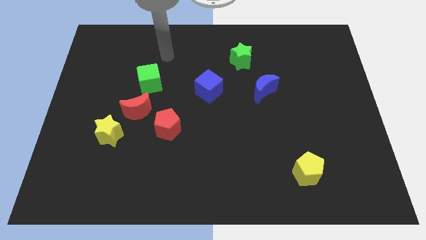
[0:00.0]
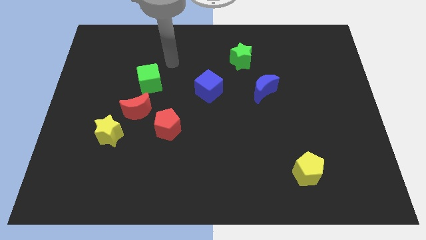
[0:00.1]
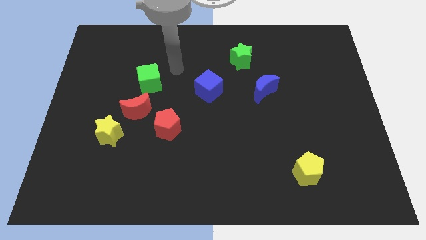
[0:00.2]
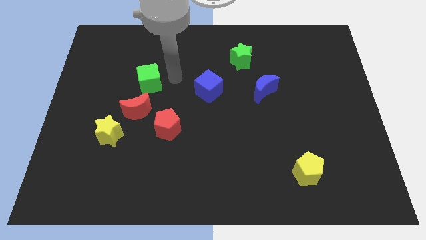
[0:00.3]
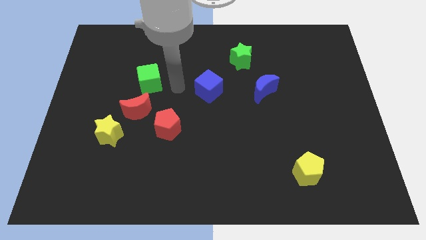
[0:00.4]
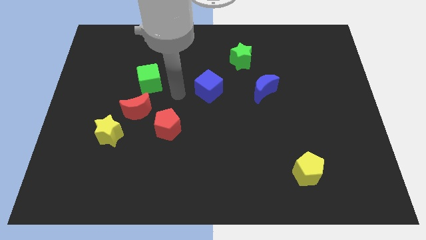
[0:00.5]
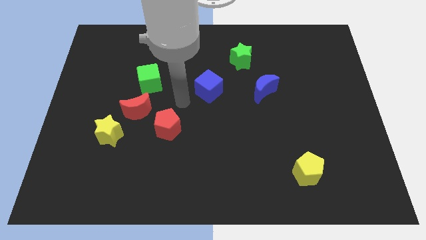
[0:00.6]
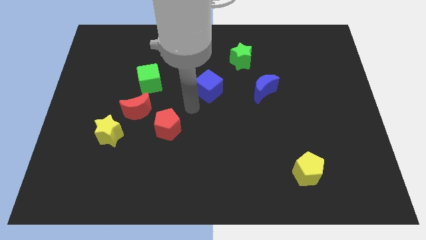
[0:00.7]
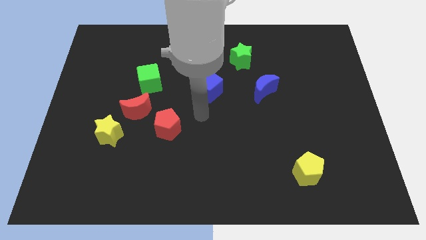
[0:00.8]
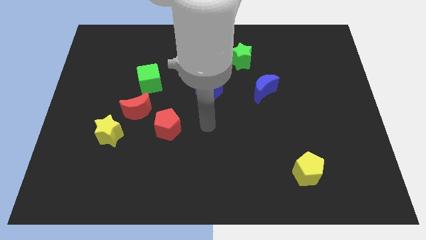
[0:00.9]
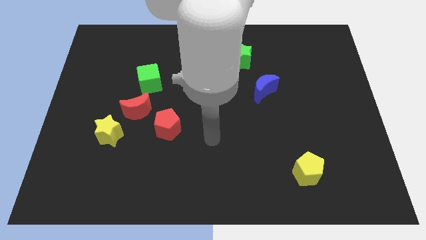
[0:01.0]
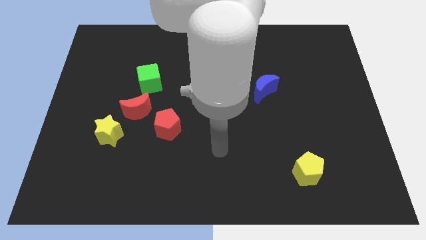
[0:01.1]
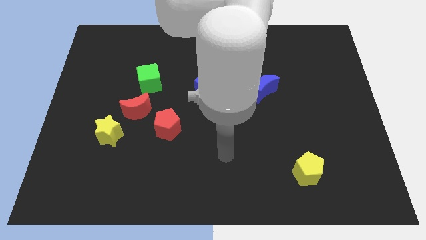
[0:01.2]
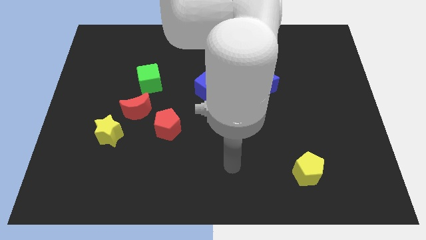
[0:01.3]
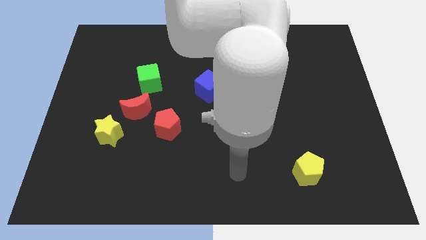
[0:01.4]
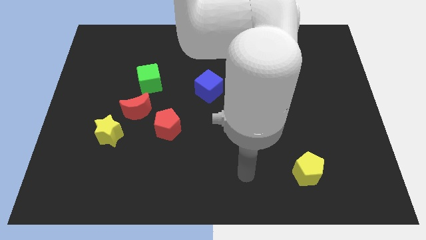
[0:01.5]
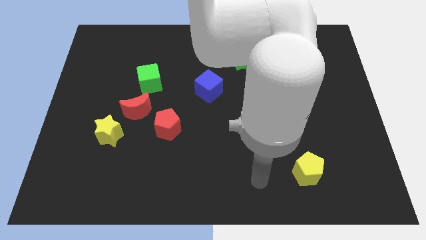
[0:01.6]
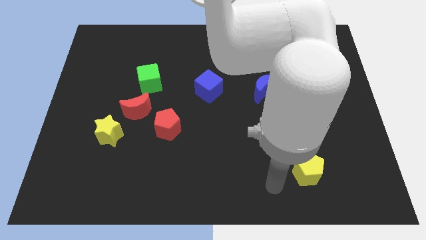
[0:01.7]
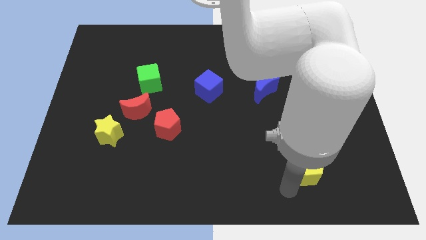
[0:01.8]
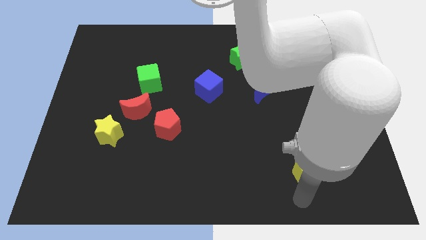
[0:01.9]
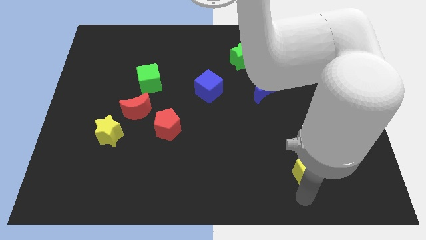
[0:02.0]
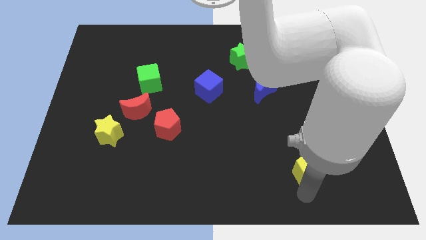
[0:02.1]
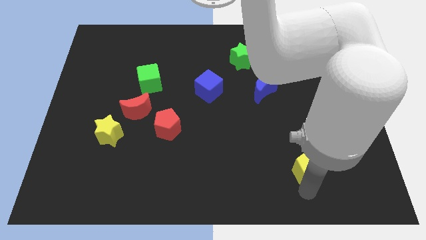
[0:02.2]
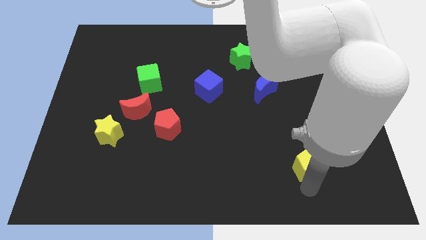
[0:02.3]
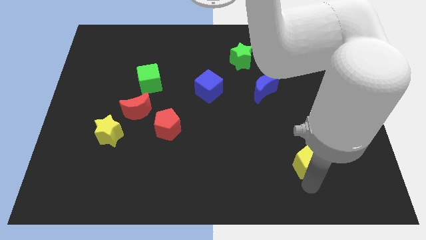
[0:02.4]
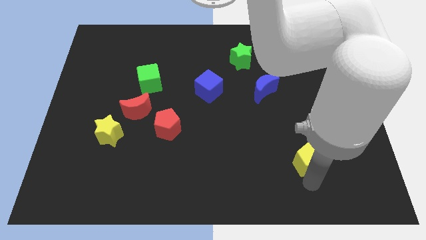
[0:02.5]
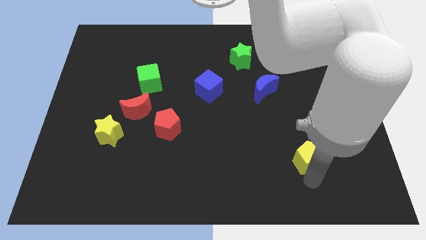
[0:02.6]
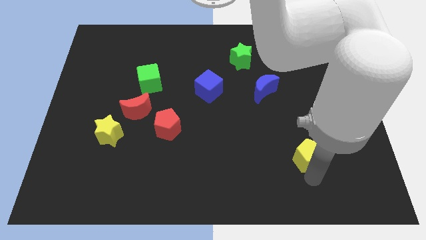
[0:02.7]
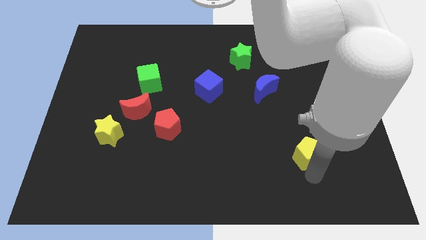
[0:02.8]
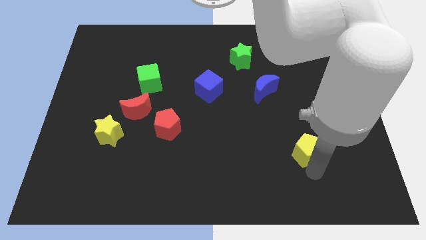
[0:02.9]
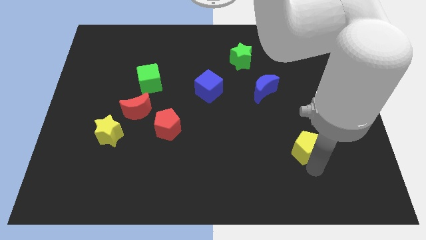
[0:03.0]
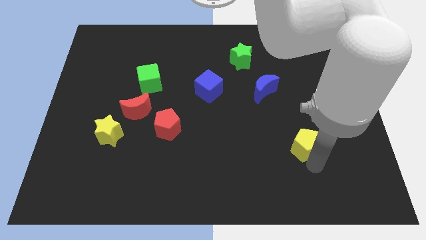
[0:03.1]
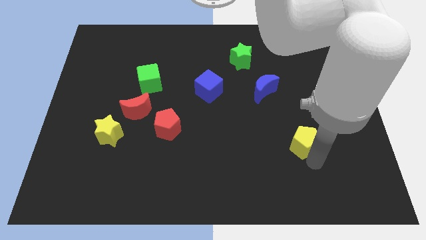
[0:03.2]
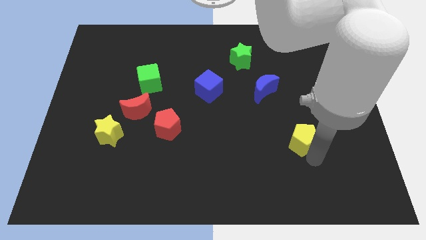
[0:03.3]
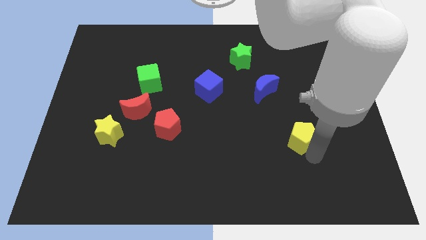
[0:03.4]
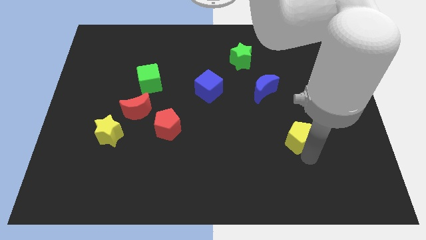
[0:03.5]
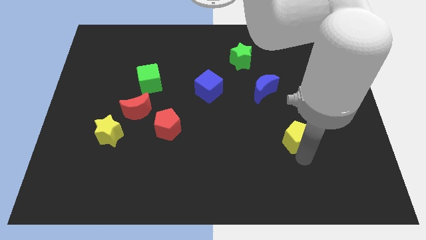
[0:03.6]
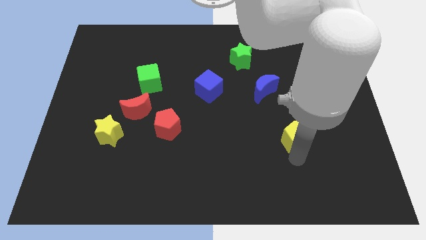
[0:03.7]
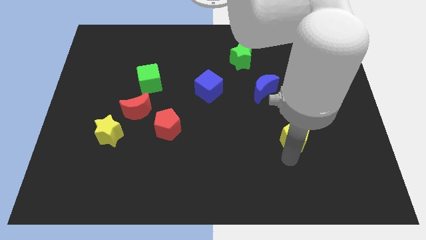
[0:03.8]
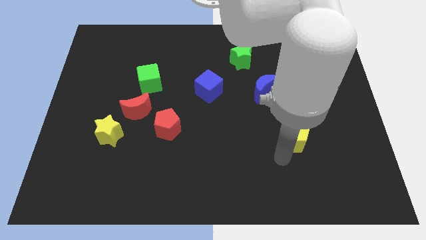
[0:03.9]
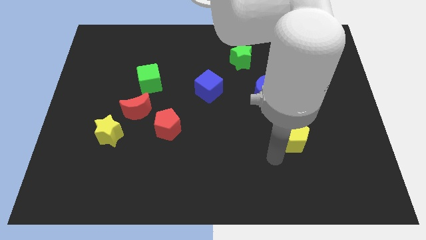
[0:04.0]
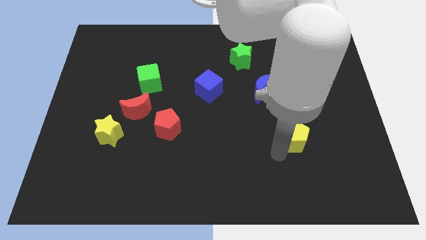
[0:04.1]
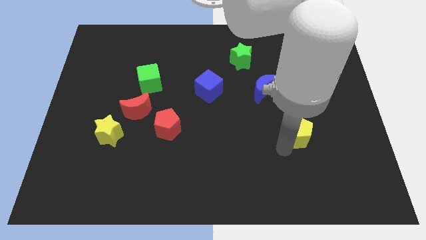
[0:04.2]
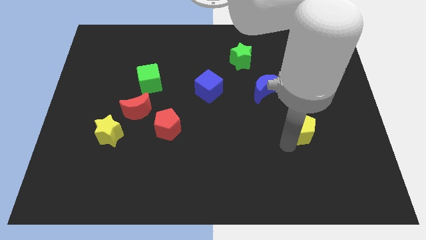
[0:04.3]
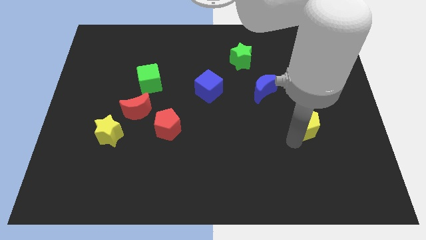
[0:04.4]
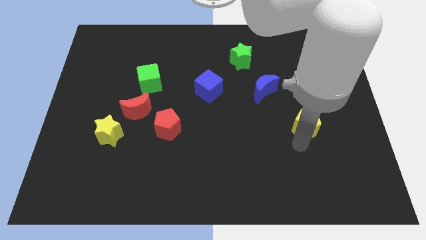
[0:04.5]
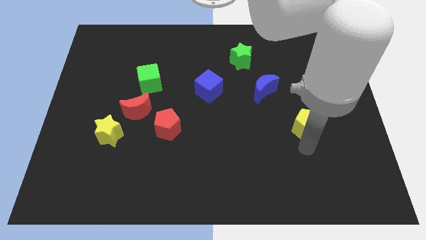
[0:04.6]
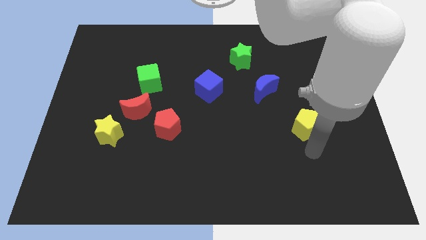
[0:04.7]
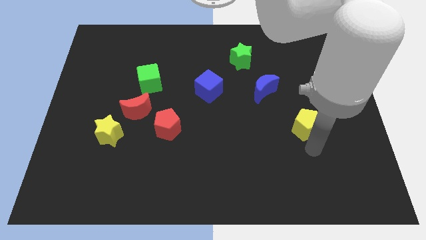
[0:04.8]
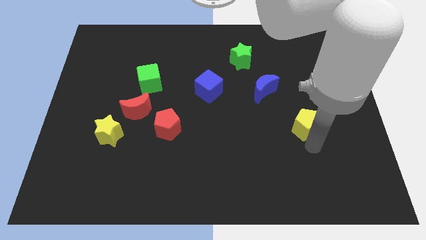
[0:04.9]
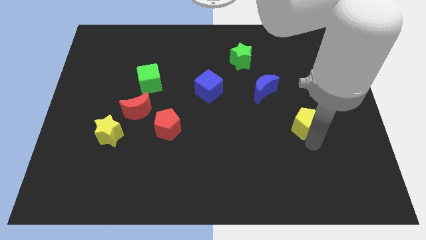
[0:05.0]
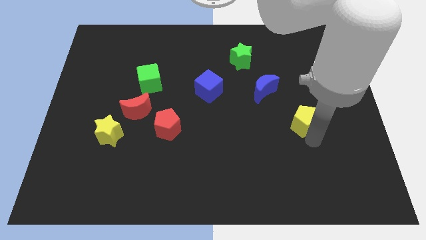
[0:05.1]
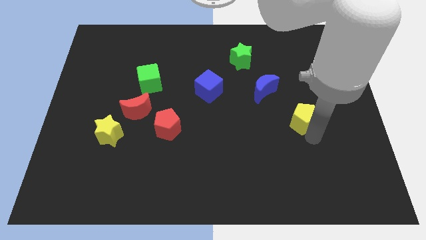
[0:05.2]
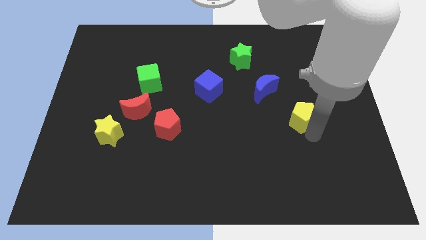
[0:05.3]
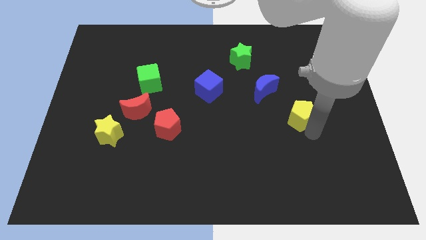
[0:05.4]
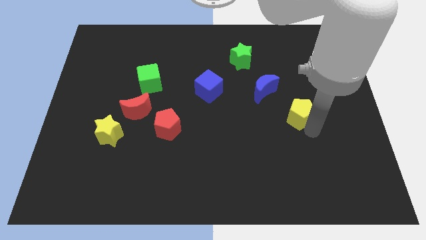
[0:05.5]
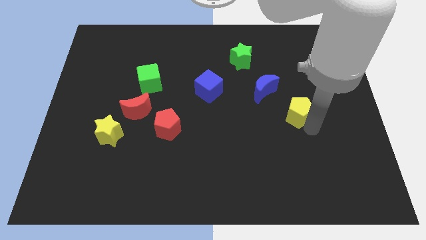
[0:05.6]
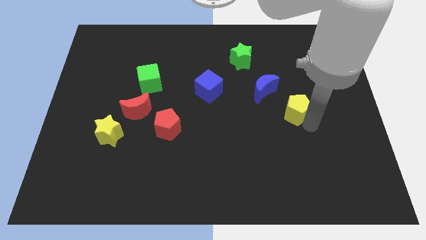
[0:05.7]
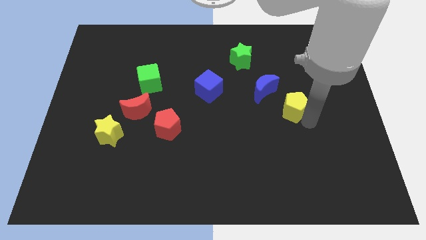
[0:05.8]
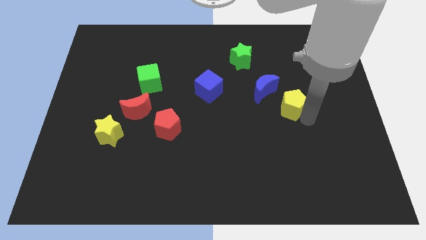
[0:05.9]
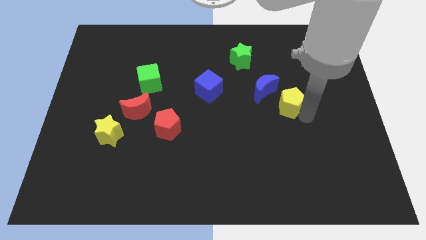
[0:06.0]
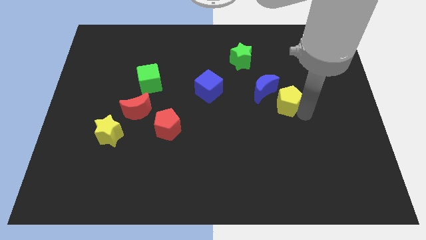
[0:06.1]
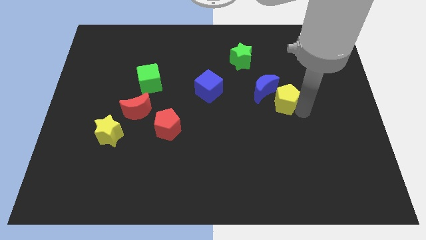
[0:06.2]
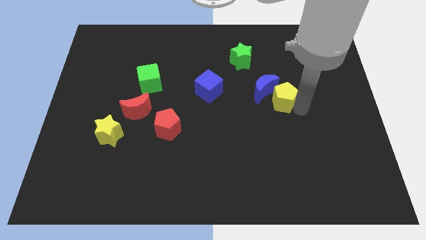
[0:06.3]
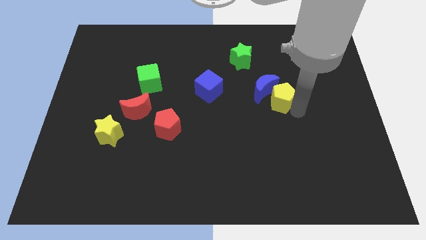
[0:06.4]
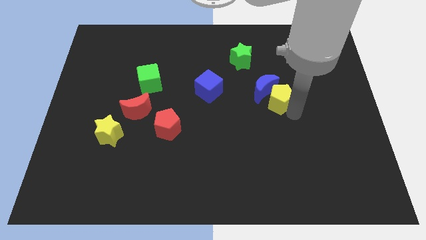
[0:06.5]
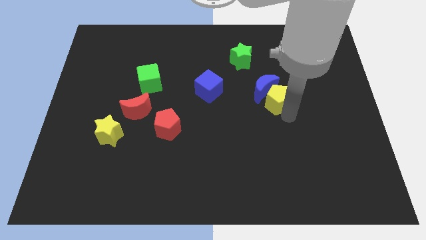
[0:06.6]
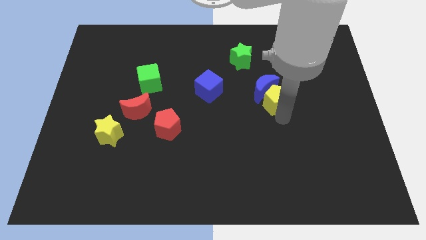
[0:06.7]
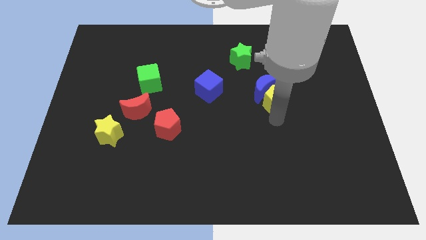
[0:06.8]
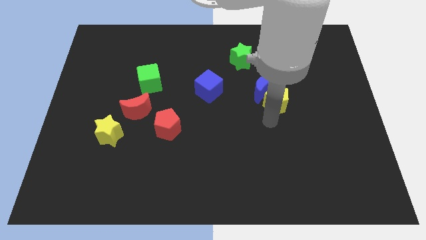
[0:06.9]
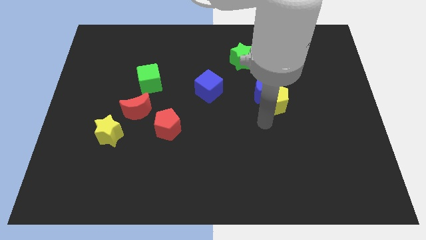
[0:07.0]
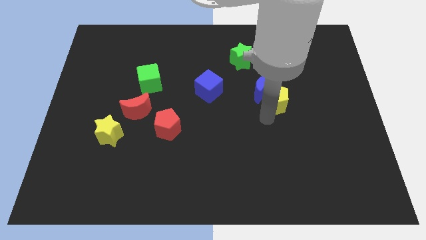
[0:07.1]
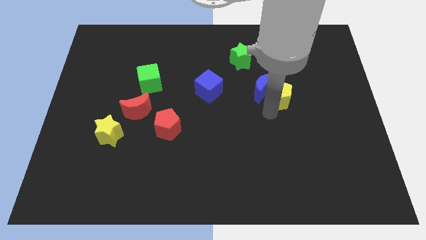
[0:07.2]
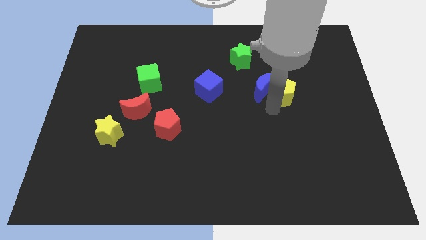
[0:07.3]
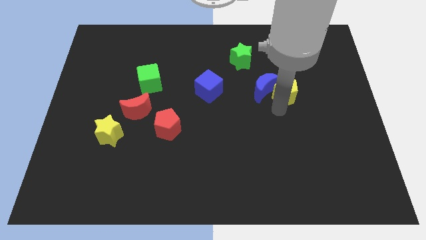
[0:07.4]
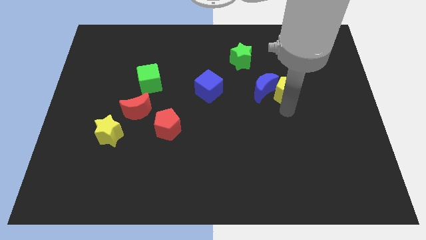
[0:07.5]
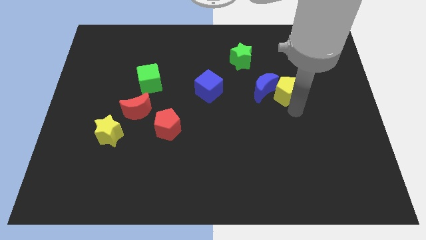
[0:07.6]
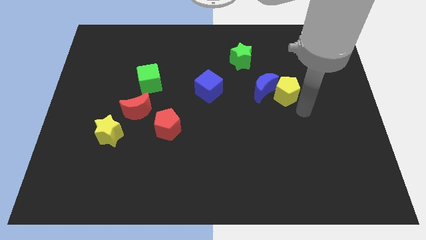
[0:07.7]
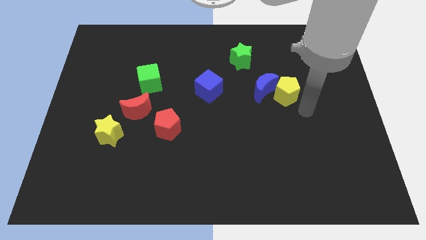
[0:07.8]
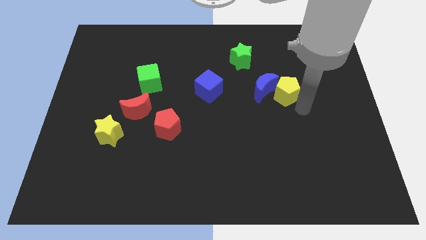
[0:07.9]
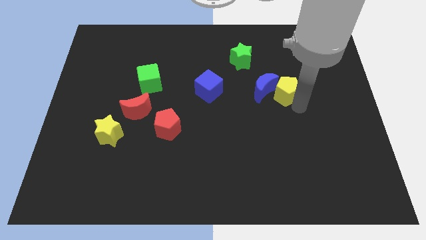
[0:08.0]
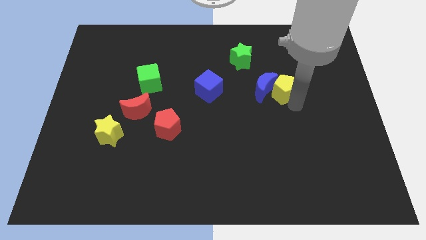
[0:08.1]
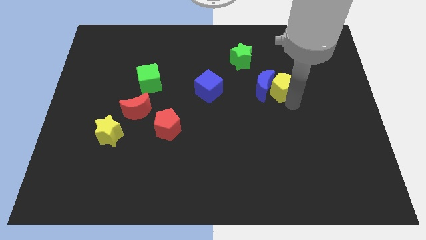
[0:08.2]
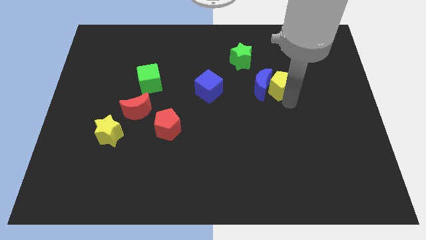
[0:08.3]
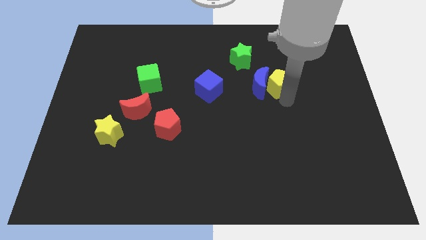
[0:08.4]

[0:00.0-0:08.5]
put the yellow pentagon to the bottom right side of the green star
